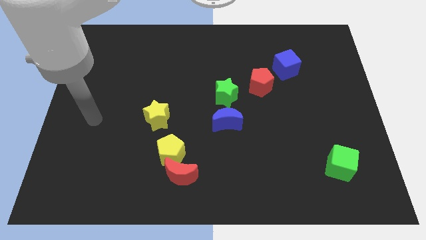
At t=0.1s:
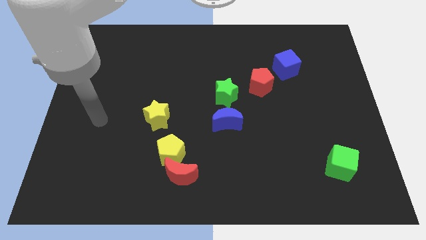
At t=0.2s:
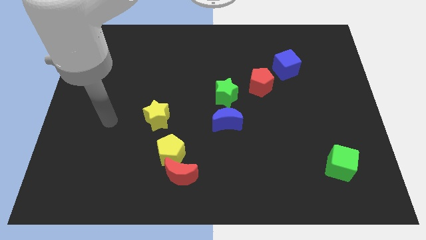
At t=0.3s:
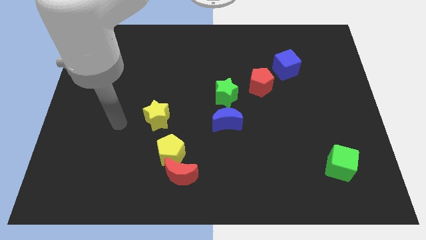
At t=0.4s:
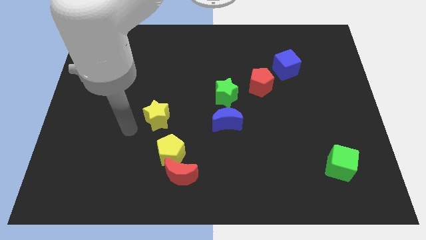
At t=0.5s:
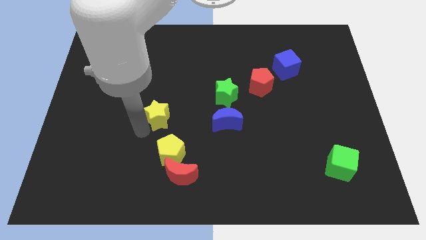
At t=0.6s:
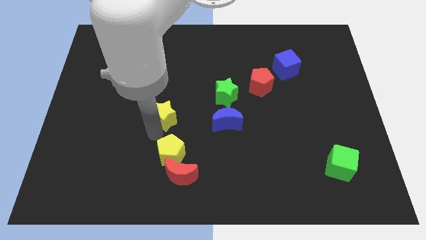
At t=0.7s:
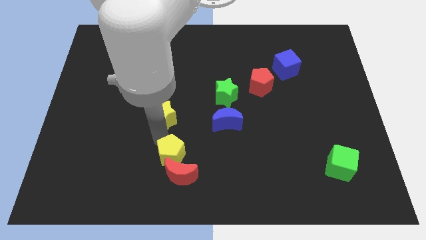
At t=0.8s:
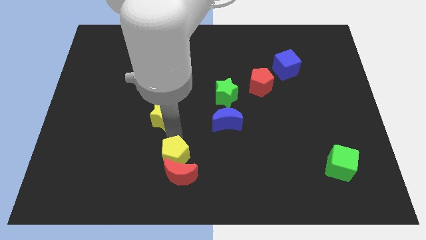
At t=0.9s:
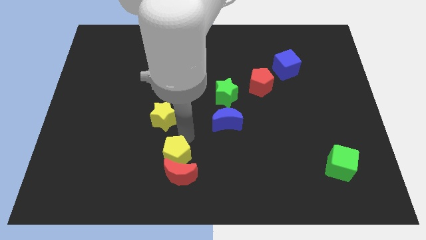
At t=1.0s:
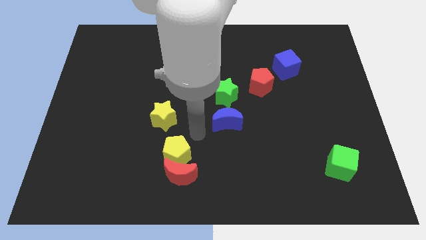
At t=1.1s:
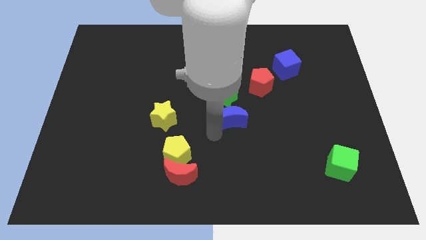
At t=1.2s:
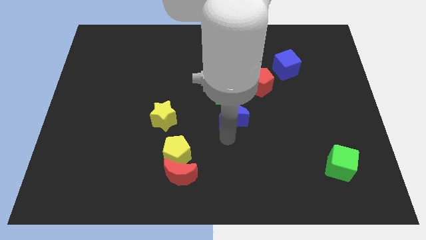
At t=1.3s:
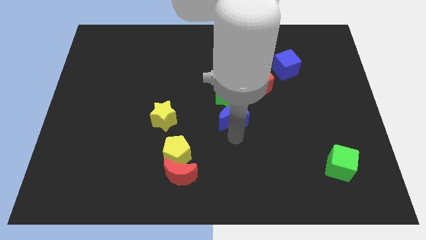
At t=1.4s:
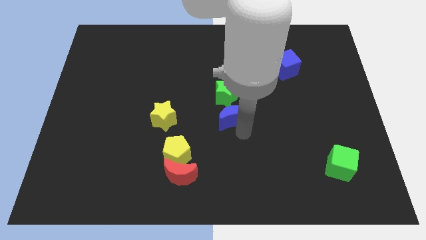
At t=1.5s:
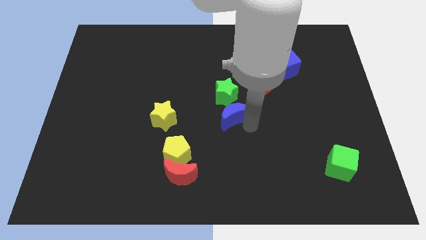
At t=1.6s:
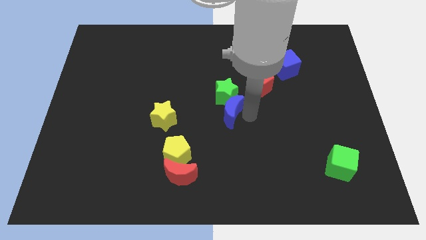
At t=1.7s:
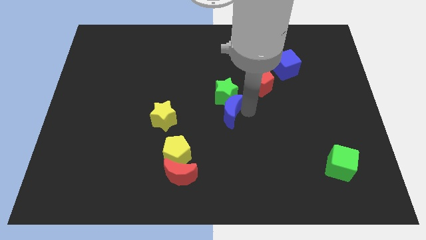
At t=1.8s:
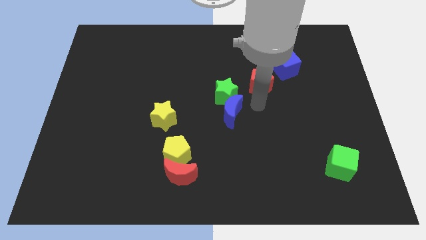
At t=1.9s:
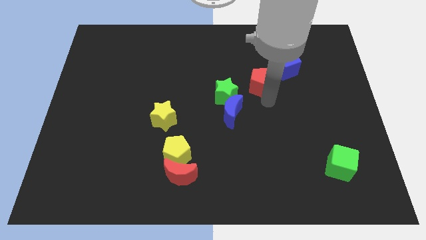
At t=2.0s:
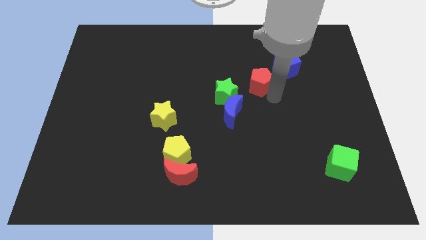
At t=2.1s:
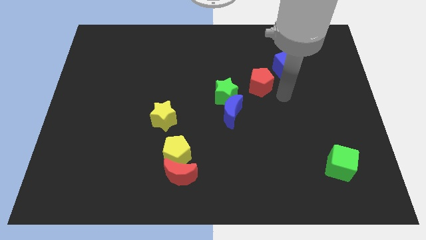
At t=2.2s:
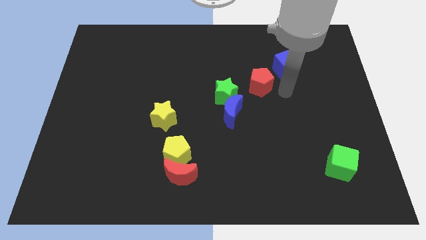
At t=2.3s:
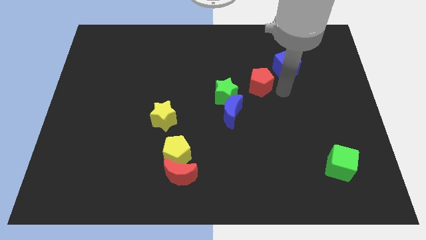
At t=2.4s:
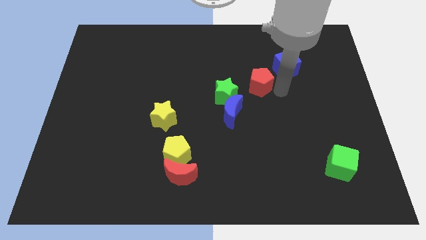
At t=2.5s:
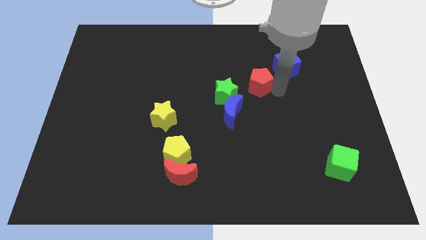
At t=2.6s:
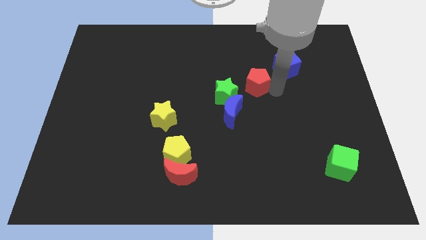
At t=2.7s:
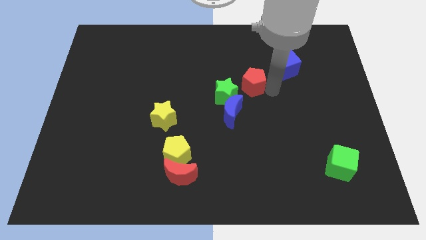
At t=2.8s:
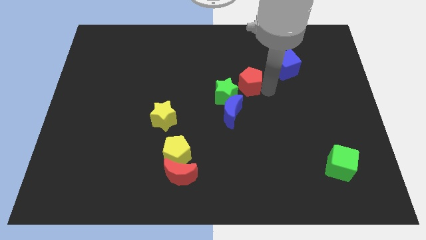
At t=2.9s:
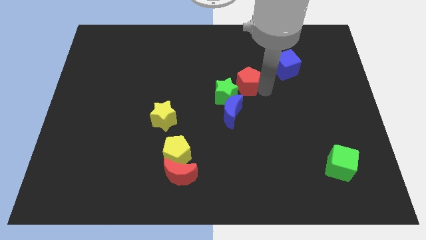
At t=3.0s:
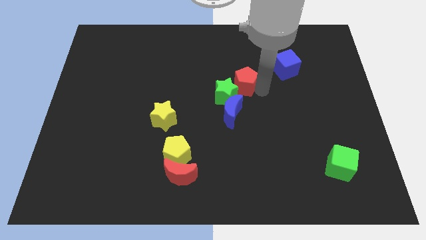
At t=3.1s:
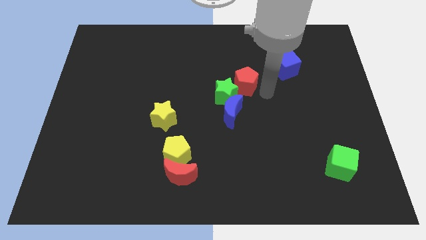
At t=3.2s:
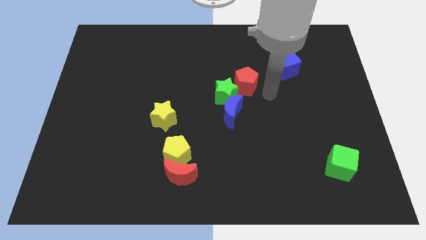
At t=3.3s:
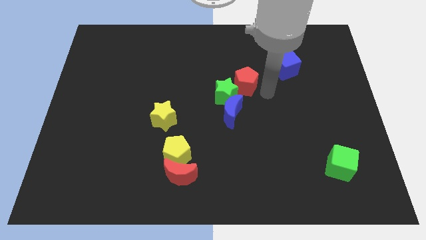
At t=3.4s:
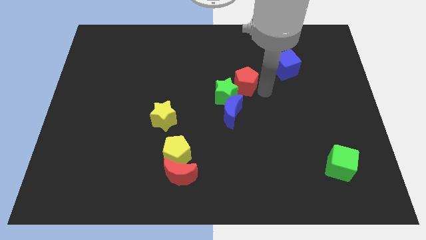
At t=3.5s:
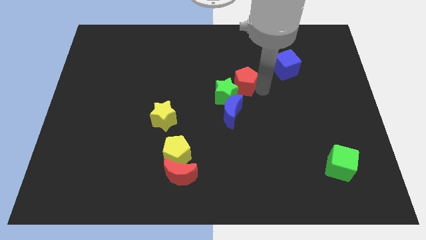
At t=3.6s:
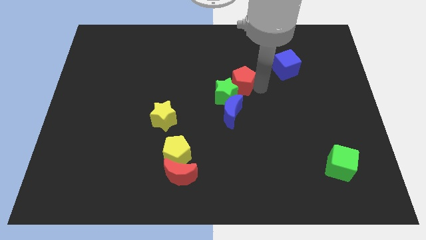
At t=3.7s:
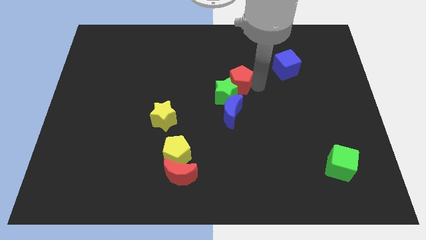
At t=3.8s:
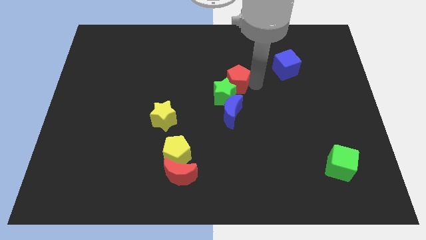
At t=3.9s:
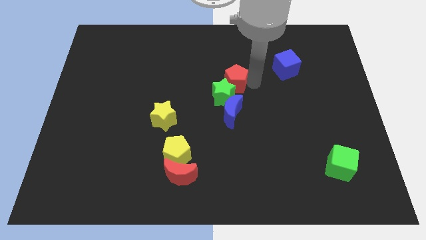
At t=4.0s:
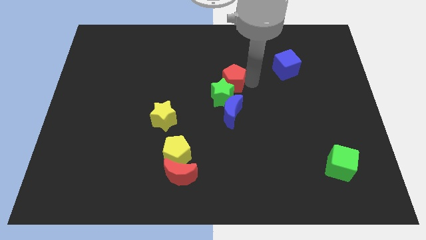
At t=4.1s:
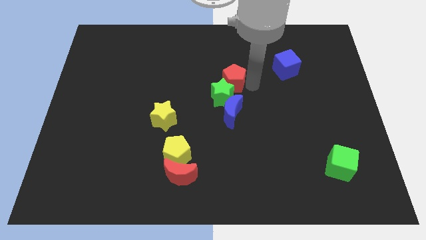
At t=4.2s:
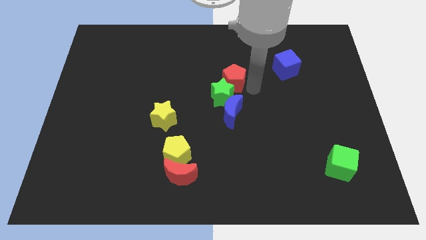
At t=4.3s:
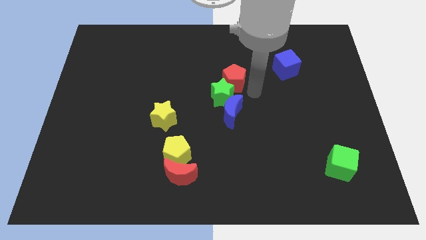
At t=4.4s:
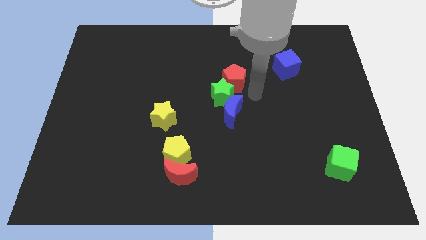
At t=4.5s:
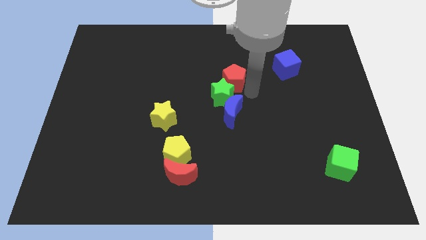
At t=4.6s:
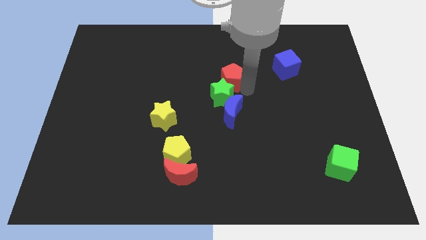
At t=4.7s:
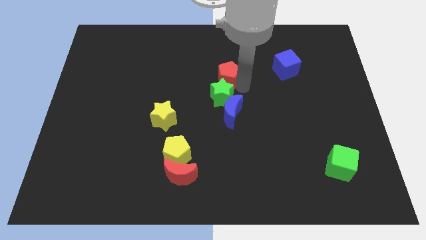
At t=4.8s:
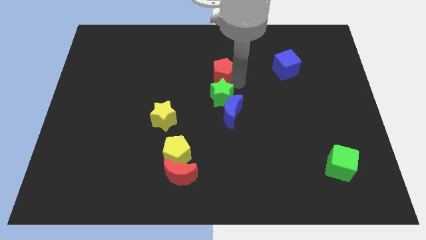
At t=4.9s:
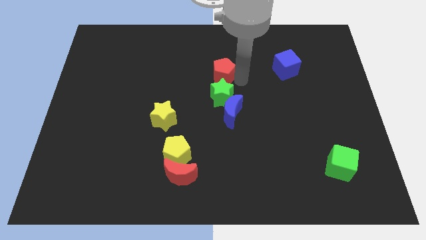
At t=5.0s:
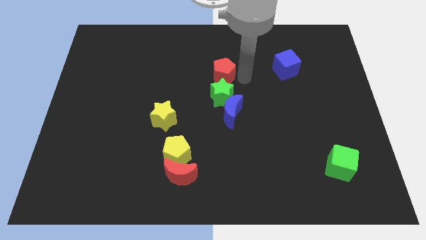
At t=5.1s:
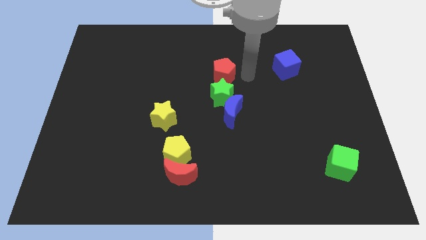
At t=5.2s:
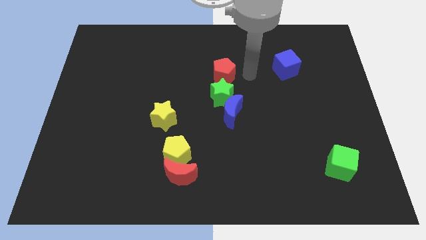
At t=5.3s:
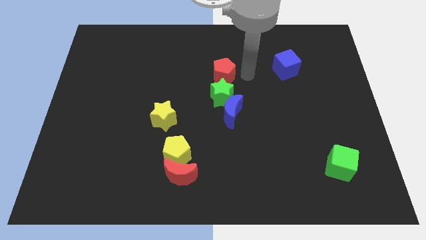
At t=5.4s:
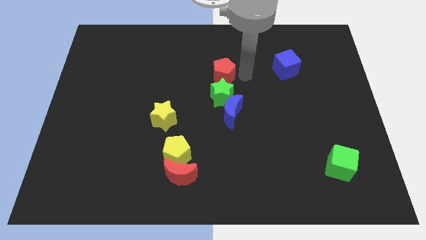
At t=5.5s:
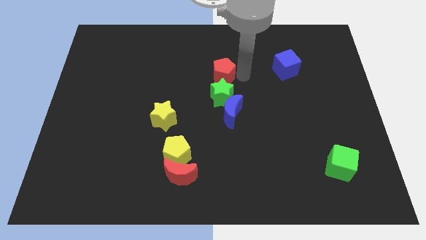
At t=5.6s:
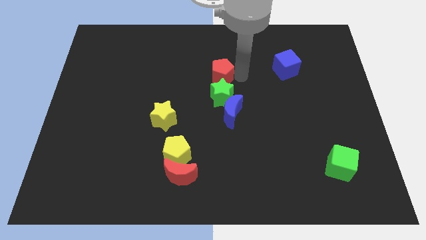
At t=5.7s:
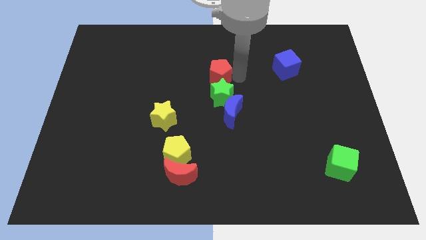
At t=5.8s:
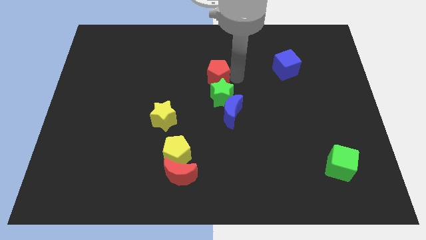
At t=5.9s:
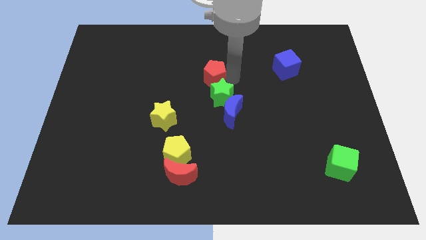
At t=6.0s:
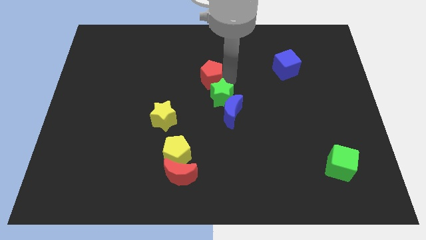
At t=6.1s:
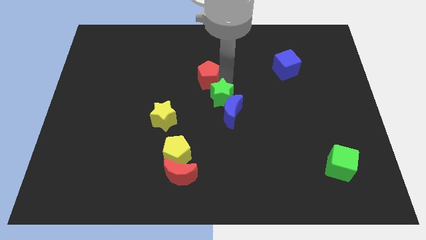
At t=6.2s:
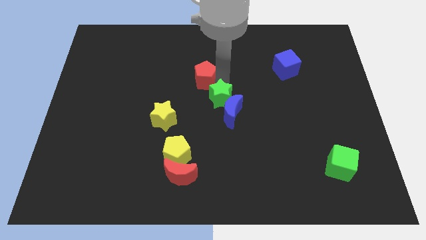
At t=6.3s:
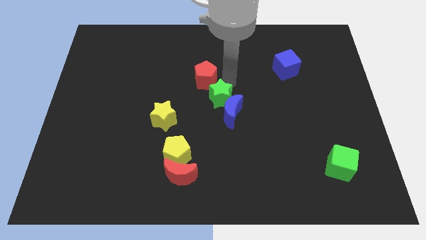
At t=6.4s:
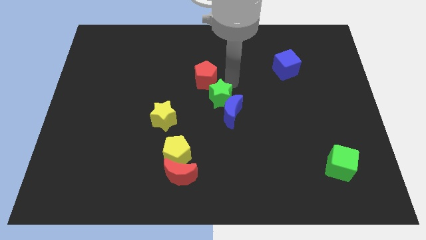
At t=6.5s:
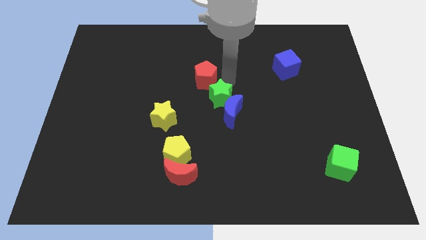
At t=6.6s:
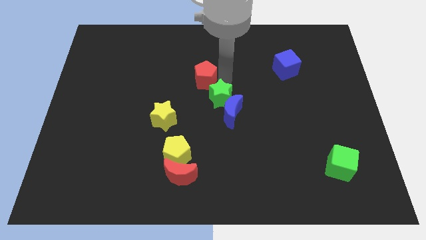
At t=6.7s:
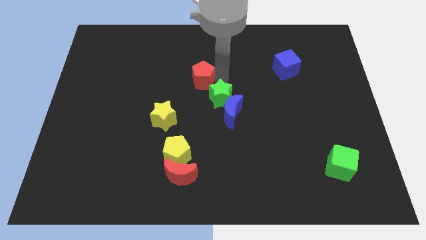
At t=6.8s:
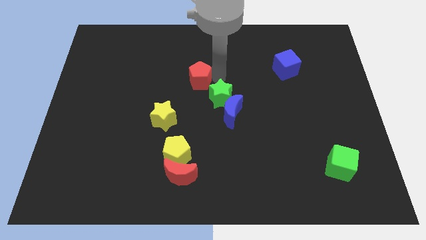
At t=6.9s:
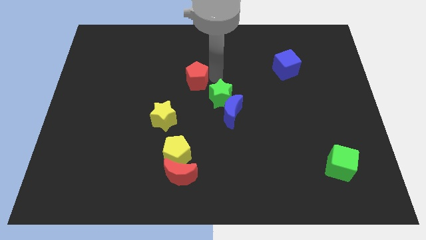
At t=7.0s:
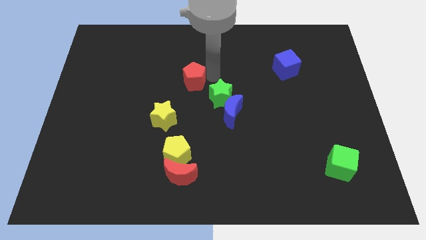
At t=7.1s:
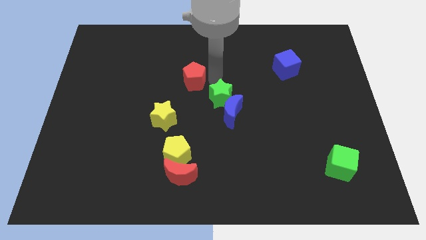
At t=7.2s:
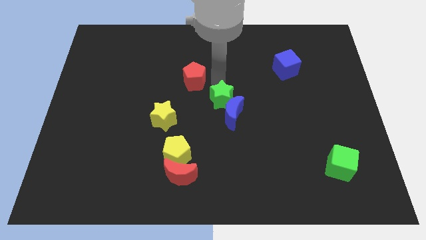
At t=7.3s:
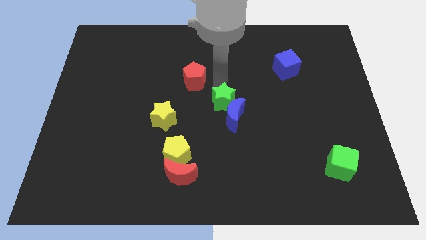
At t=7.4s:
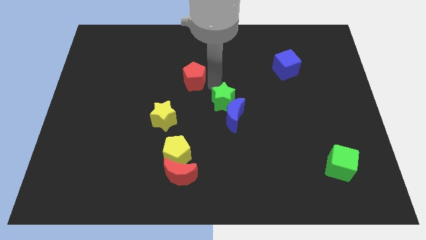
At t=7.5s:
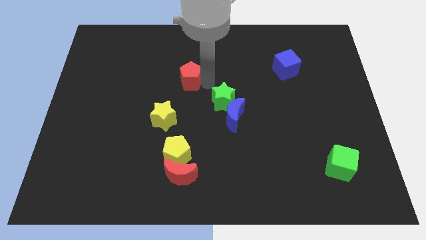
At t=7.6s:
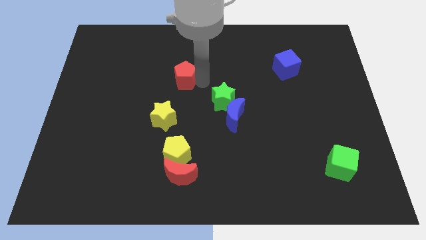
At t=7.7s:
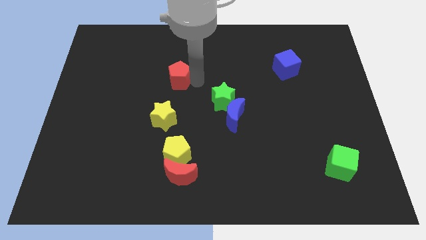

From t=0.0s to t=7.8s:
push the red pentagon left
